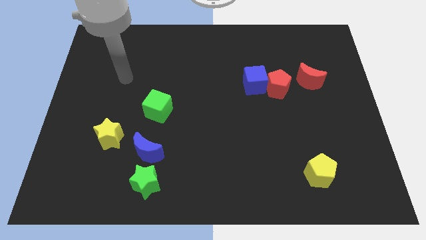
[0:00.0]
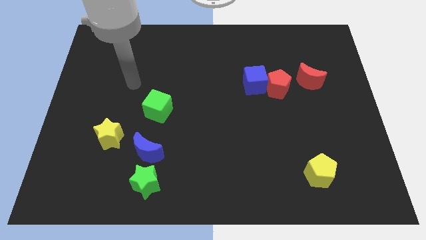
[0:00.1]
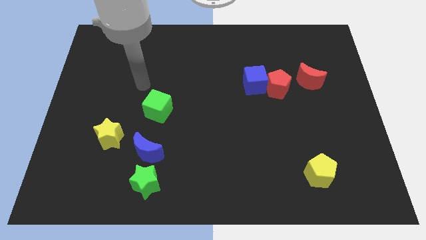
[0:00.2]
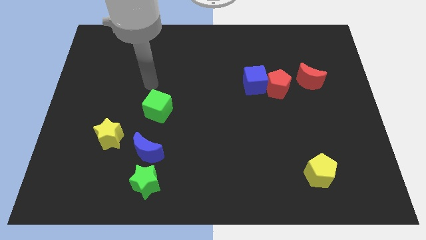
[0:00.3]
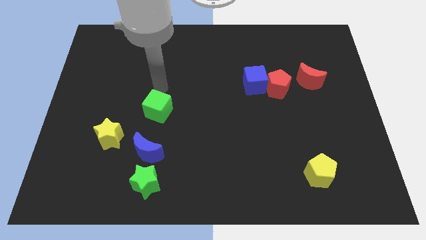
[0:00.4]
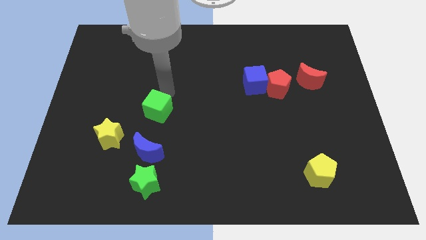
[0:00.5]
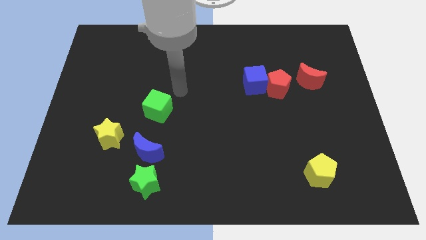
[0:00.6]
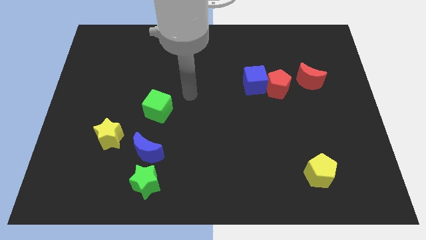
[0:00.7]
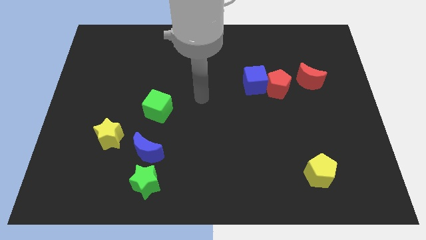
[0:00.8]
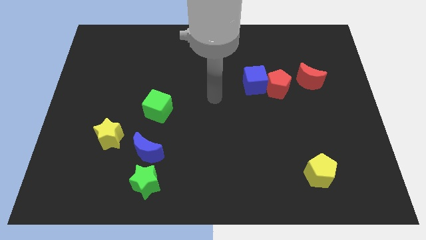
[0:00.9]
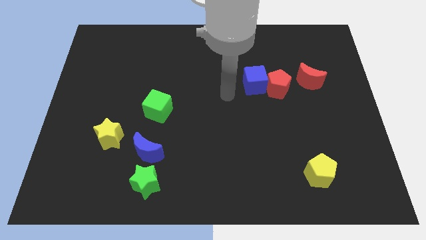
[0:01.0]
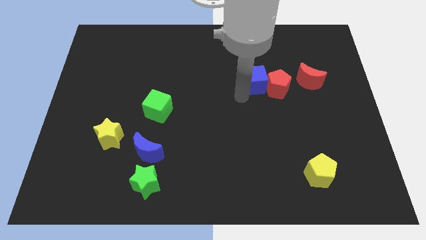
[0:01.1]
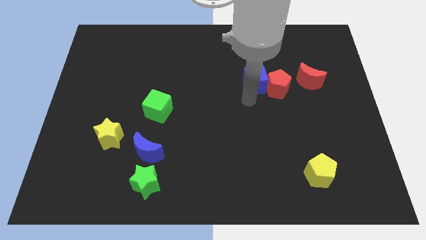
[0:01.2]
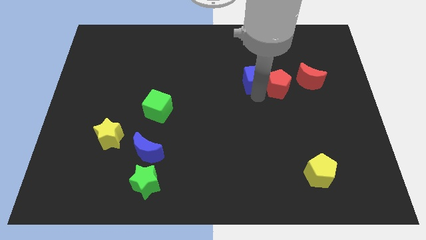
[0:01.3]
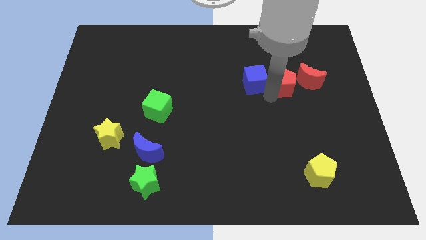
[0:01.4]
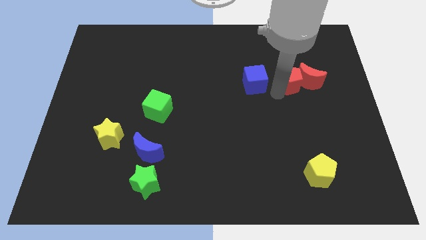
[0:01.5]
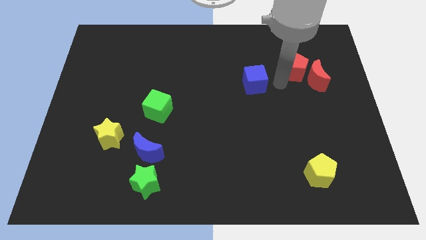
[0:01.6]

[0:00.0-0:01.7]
move the blue cube away from the red pentagon

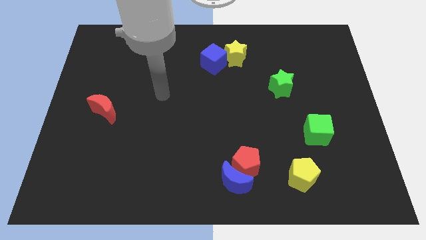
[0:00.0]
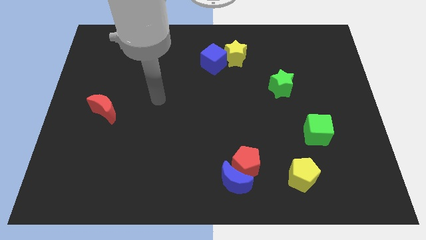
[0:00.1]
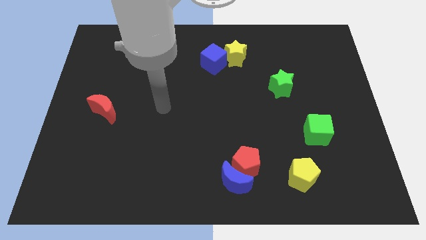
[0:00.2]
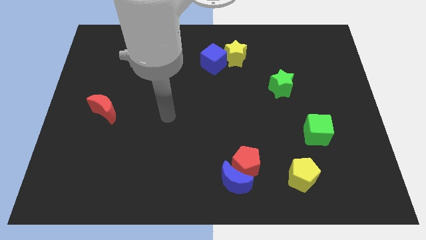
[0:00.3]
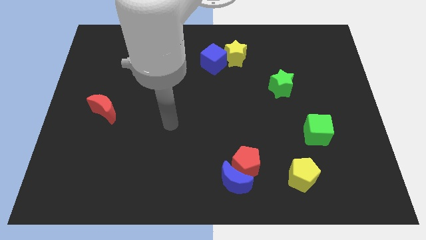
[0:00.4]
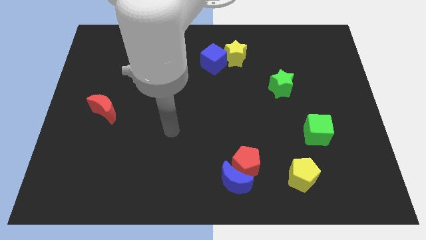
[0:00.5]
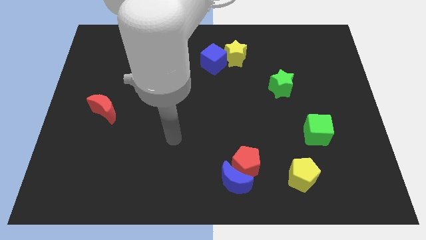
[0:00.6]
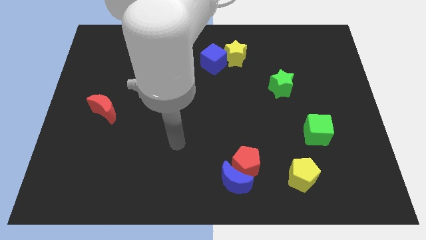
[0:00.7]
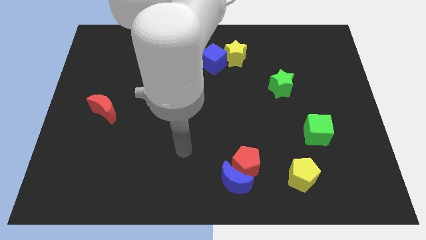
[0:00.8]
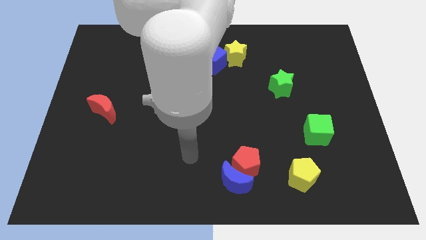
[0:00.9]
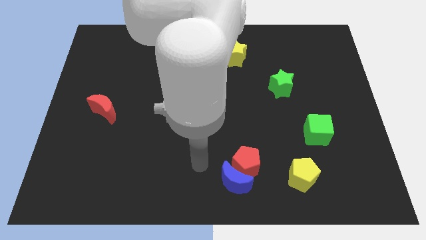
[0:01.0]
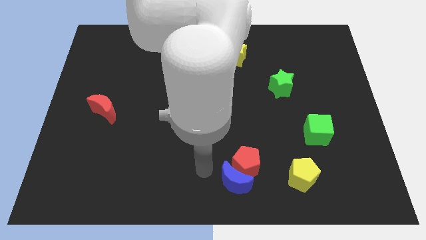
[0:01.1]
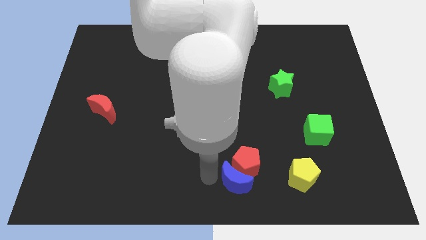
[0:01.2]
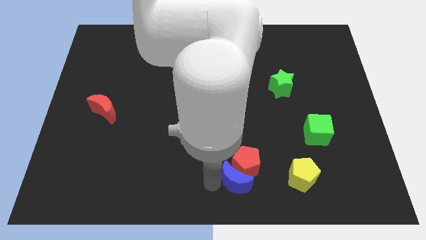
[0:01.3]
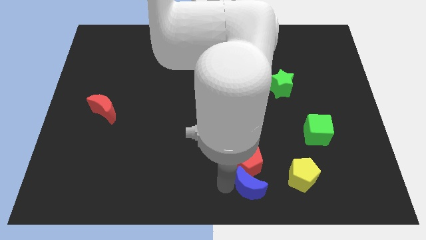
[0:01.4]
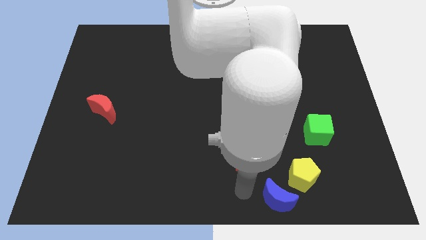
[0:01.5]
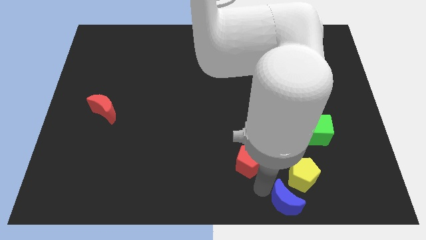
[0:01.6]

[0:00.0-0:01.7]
pull the red pentagon apart from the blue moon

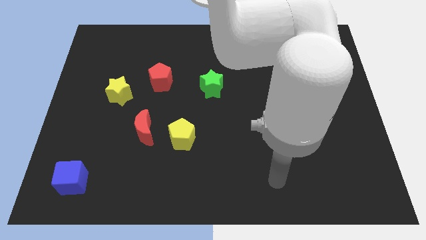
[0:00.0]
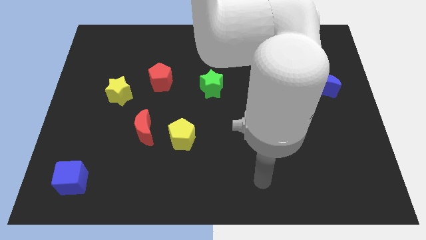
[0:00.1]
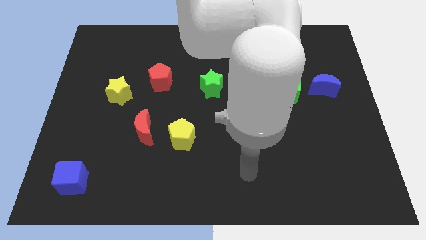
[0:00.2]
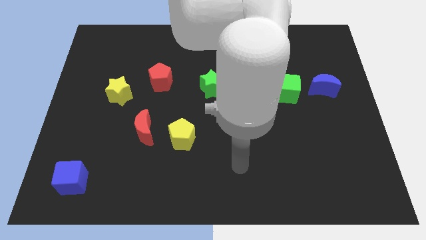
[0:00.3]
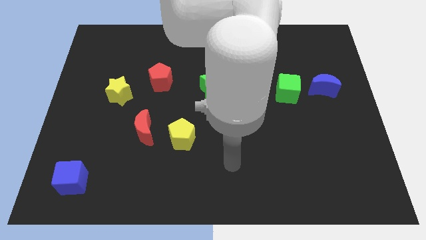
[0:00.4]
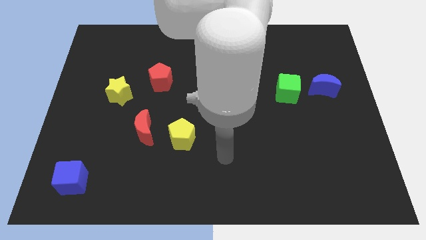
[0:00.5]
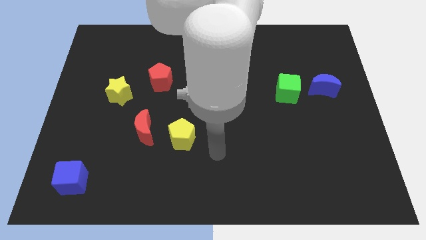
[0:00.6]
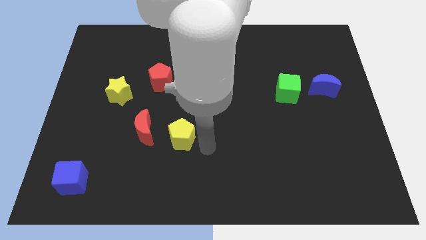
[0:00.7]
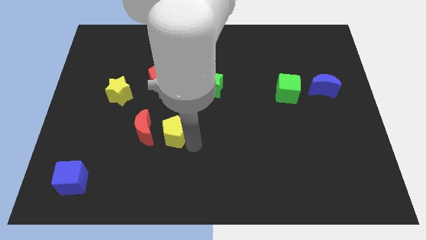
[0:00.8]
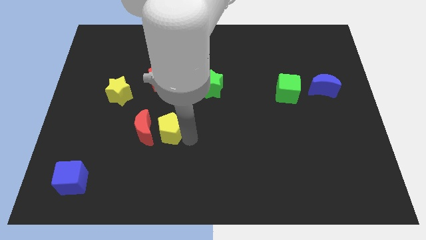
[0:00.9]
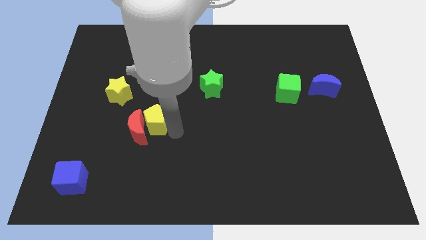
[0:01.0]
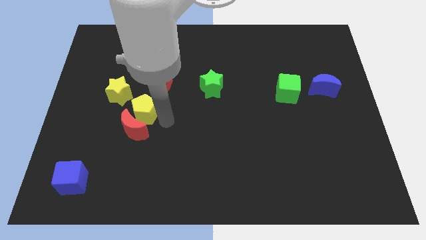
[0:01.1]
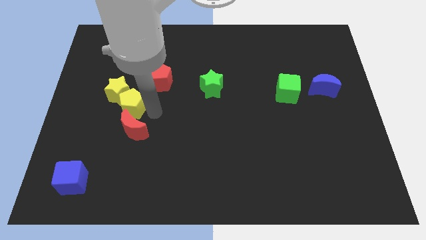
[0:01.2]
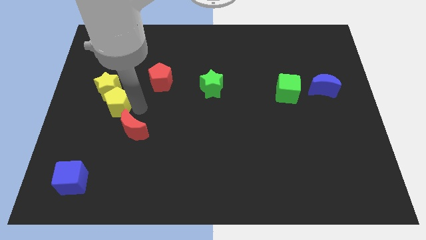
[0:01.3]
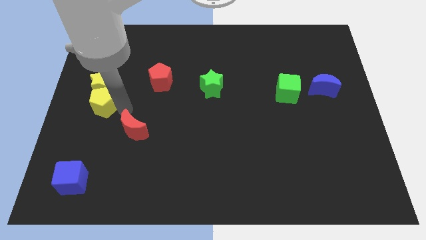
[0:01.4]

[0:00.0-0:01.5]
move the red moon away from the yellow pentagon

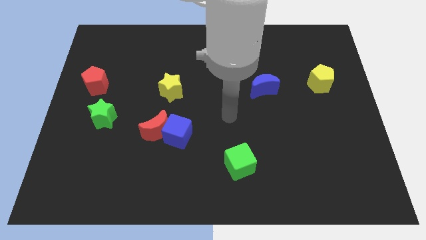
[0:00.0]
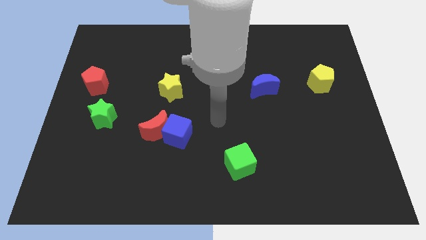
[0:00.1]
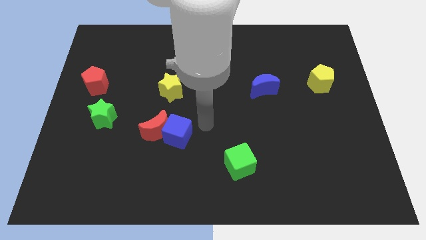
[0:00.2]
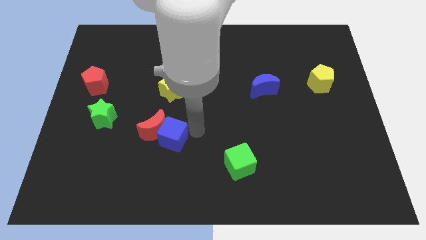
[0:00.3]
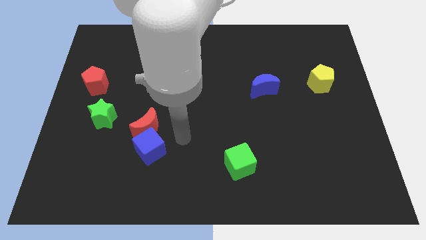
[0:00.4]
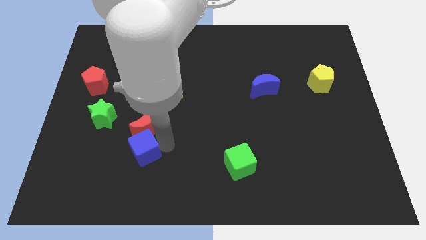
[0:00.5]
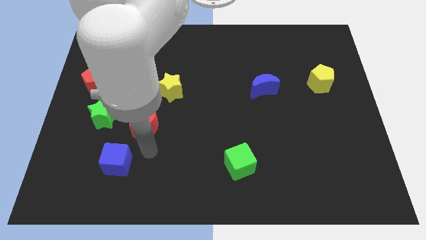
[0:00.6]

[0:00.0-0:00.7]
move the red moon away from the blue cube

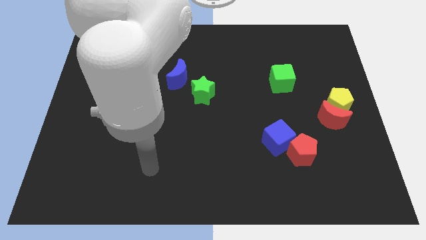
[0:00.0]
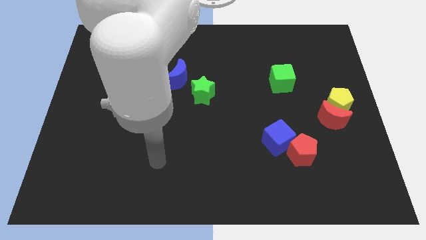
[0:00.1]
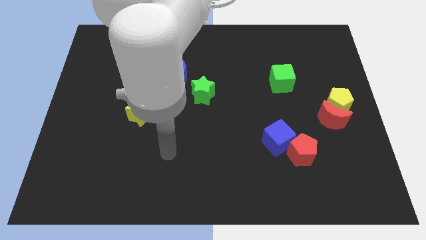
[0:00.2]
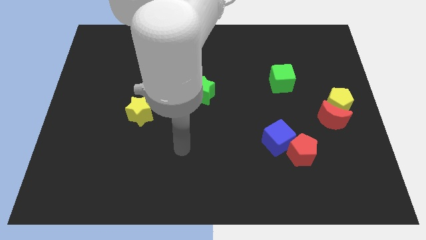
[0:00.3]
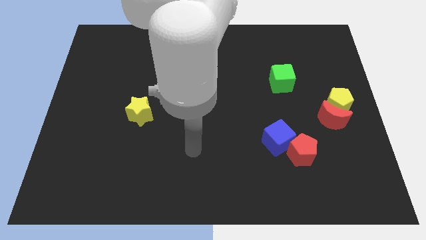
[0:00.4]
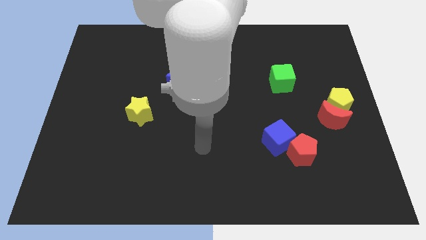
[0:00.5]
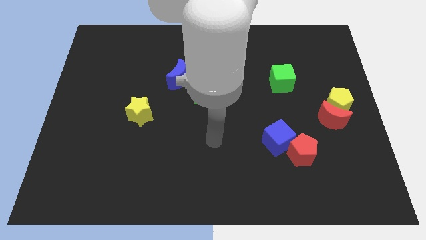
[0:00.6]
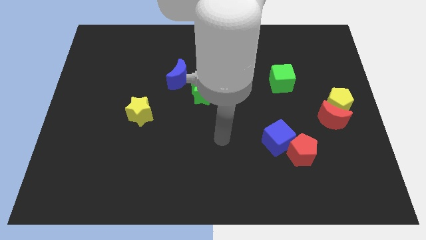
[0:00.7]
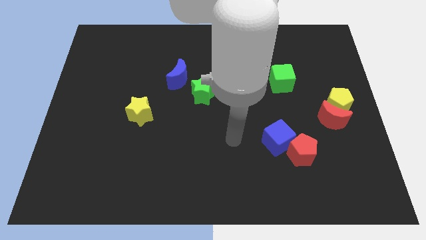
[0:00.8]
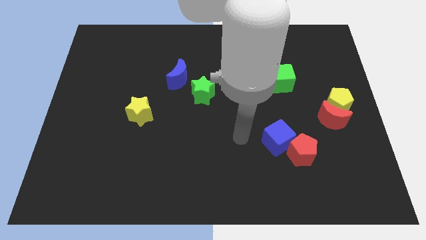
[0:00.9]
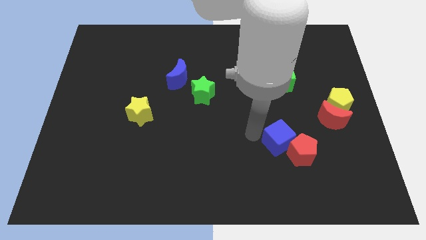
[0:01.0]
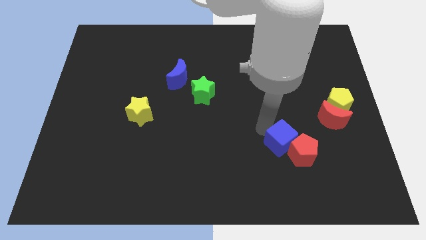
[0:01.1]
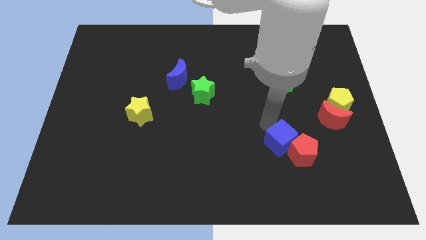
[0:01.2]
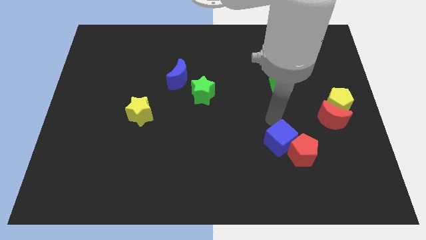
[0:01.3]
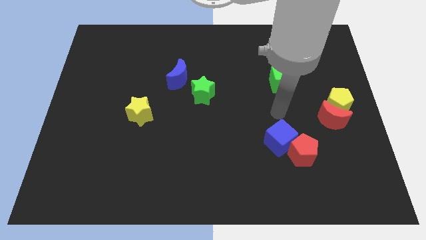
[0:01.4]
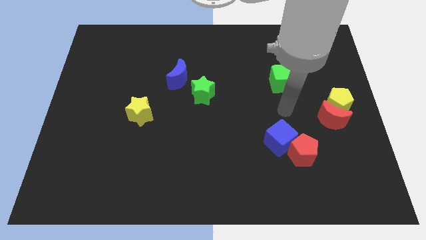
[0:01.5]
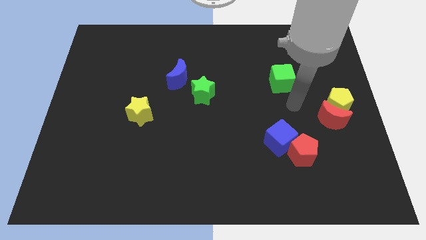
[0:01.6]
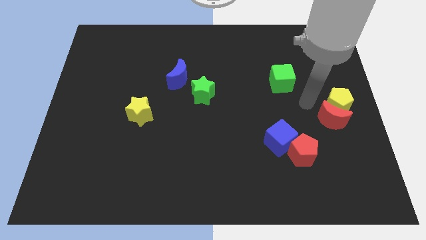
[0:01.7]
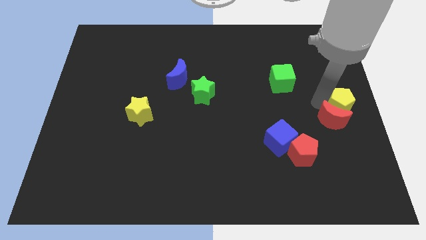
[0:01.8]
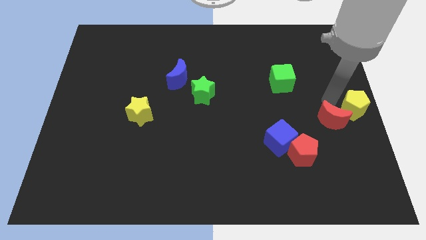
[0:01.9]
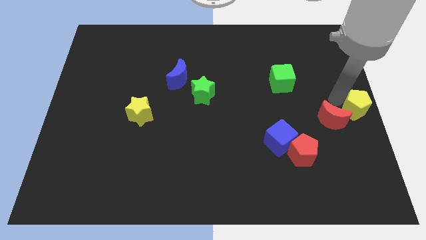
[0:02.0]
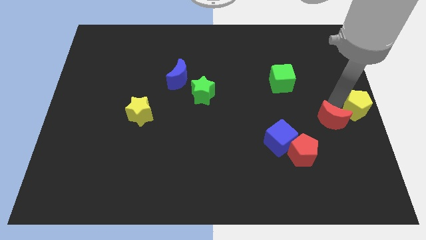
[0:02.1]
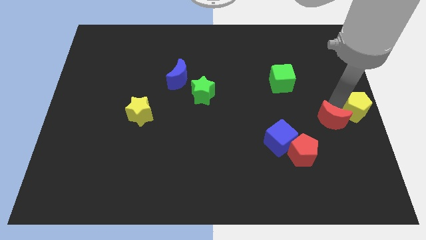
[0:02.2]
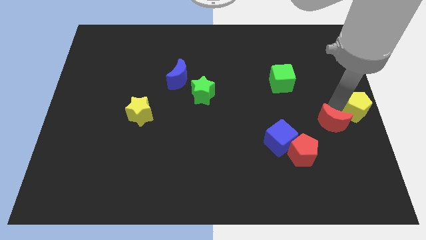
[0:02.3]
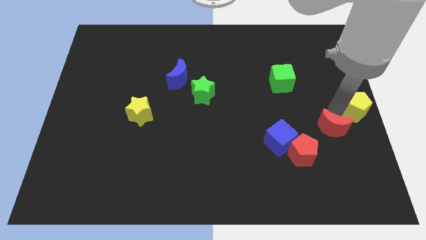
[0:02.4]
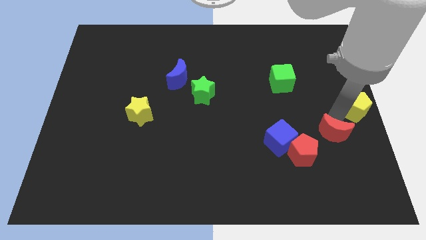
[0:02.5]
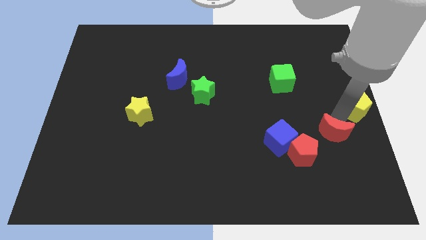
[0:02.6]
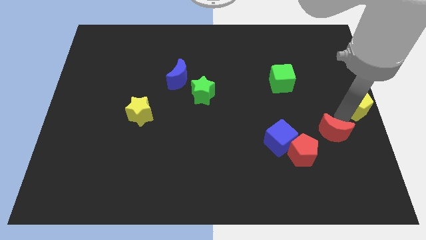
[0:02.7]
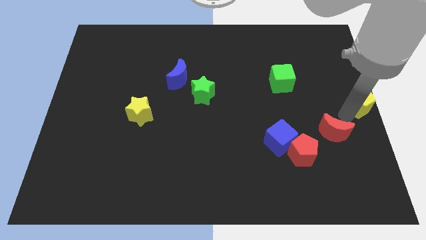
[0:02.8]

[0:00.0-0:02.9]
separate the red moon from the yellow pentagon

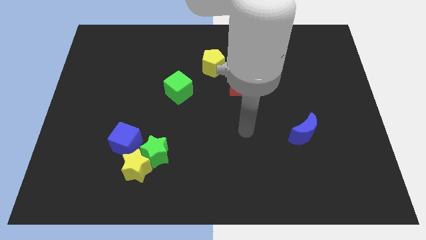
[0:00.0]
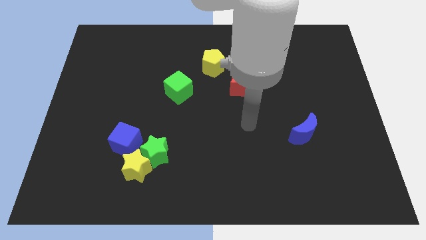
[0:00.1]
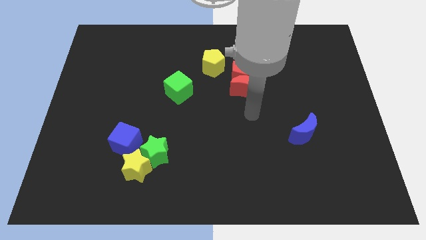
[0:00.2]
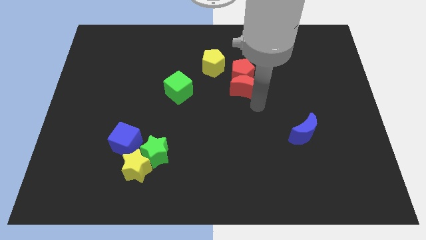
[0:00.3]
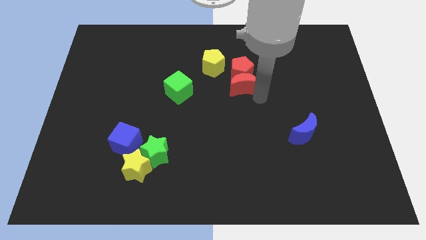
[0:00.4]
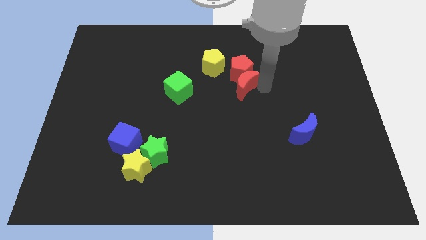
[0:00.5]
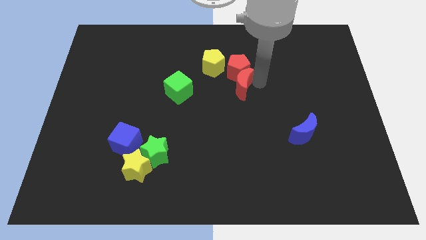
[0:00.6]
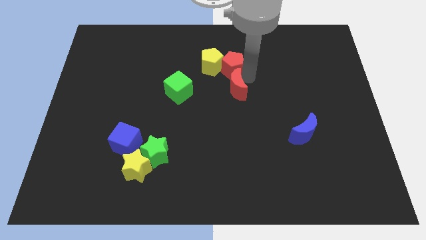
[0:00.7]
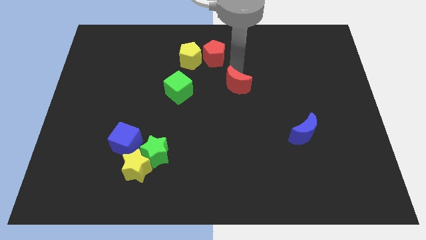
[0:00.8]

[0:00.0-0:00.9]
separate the red moon from the red pentagon
